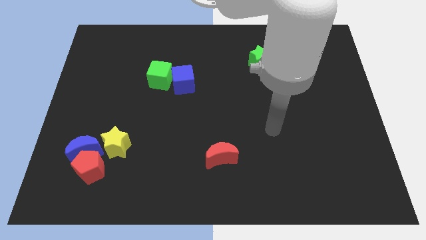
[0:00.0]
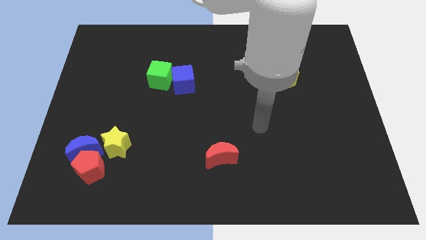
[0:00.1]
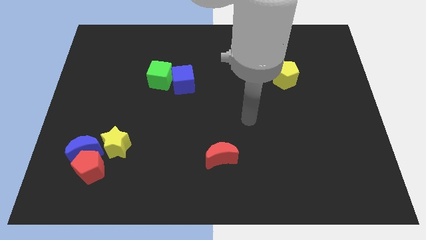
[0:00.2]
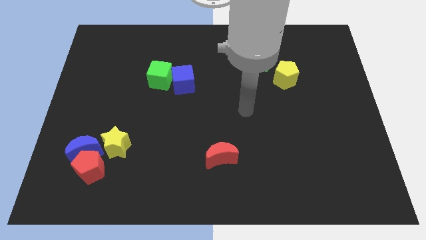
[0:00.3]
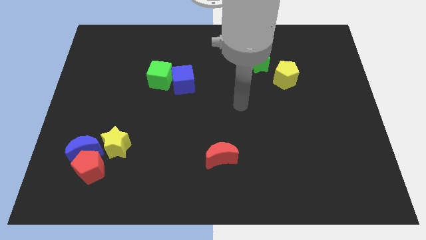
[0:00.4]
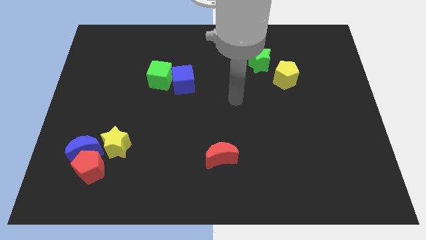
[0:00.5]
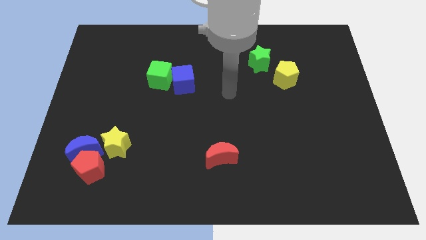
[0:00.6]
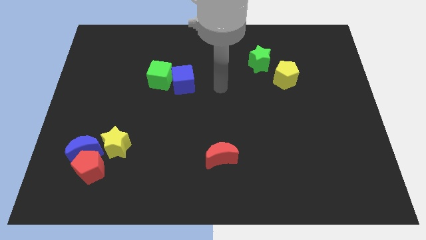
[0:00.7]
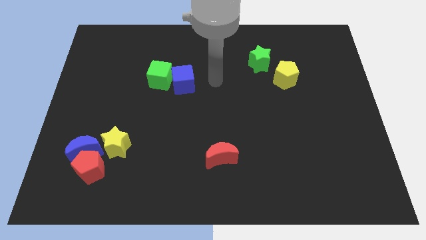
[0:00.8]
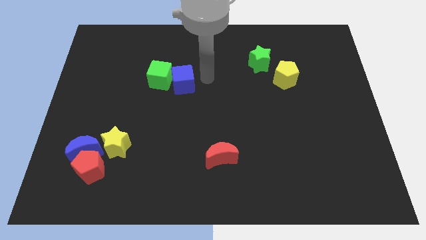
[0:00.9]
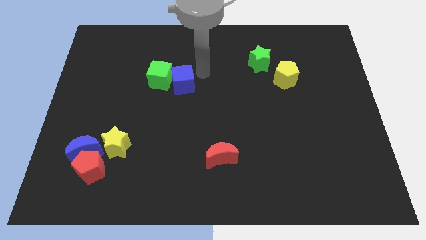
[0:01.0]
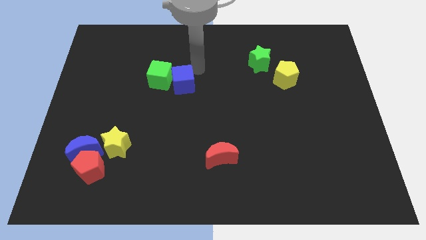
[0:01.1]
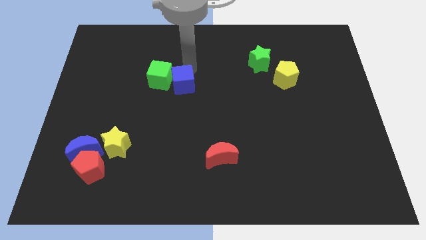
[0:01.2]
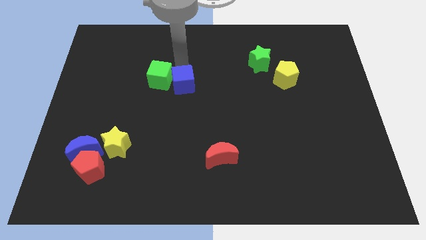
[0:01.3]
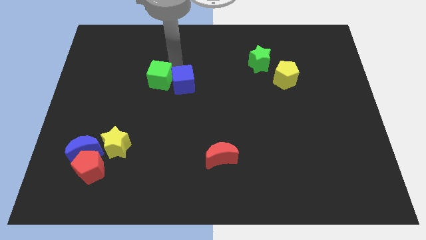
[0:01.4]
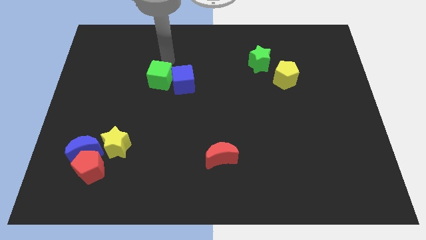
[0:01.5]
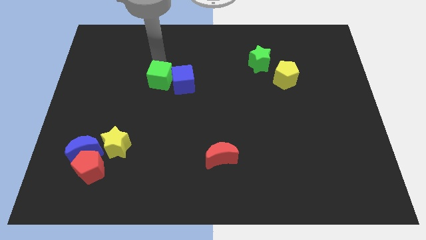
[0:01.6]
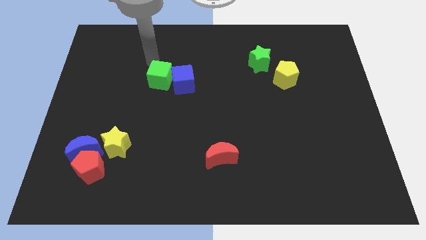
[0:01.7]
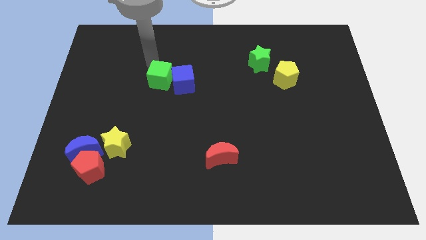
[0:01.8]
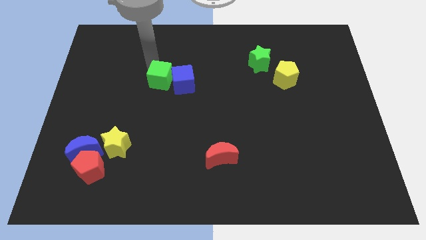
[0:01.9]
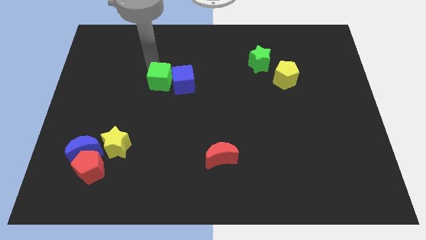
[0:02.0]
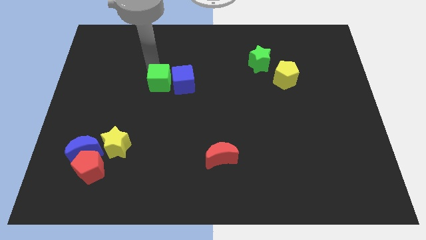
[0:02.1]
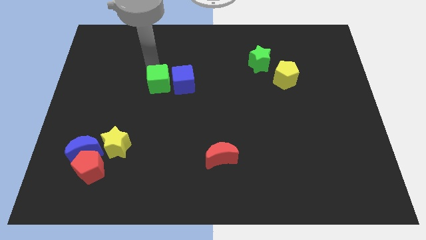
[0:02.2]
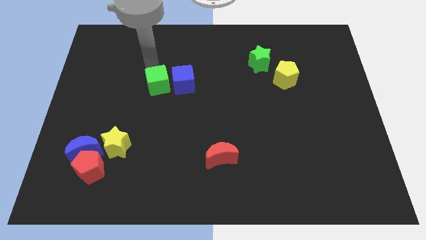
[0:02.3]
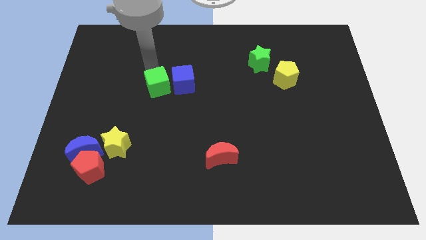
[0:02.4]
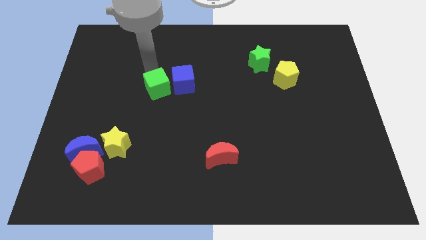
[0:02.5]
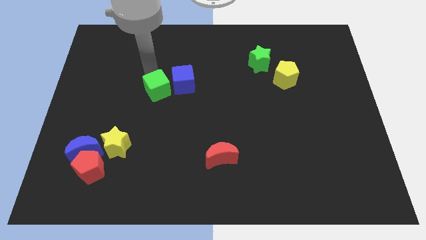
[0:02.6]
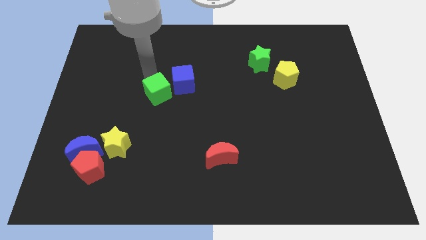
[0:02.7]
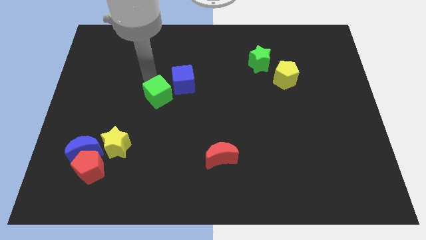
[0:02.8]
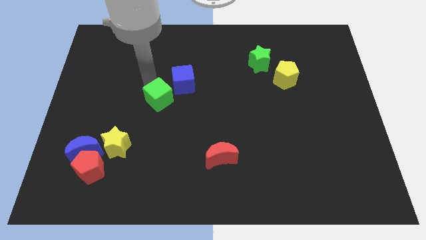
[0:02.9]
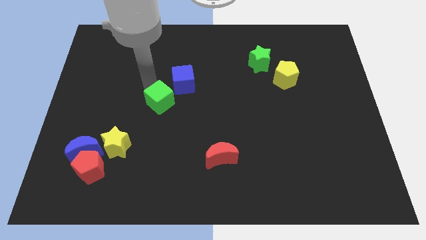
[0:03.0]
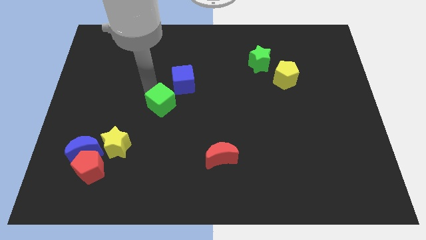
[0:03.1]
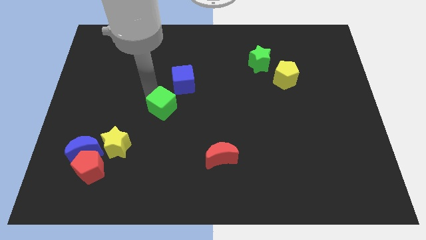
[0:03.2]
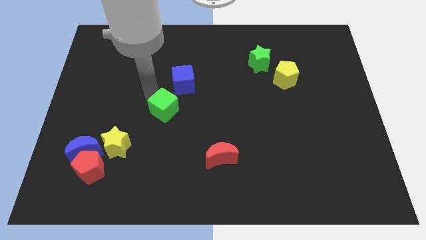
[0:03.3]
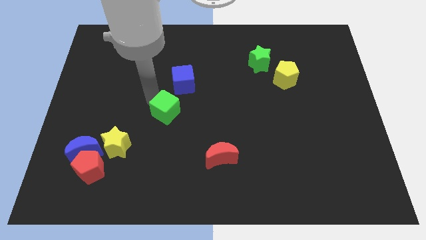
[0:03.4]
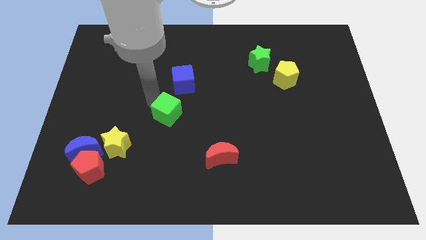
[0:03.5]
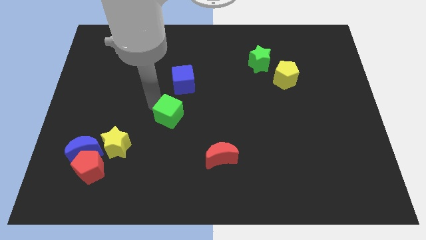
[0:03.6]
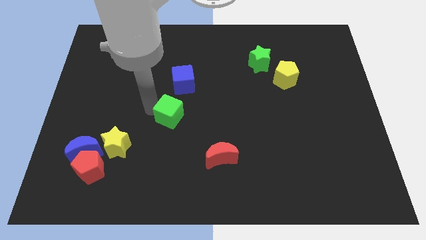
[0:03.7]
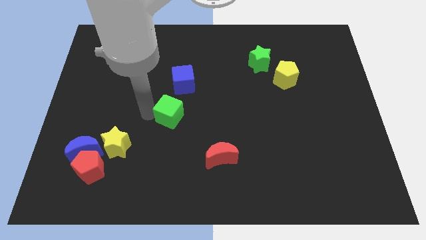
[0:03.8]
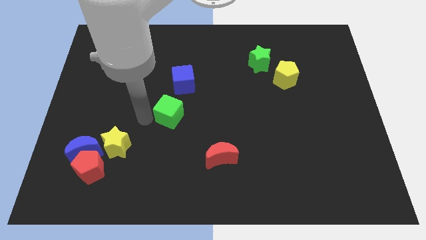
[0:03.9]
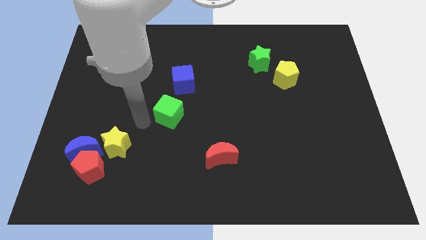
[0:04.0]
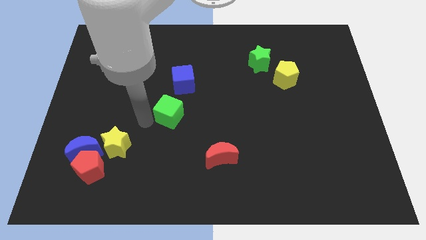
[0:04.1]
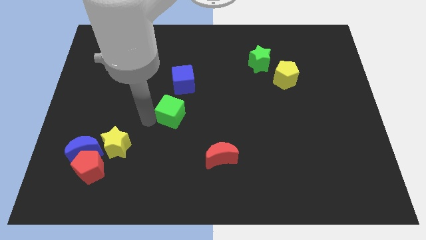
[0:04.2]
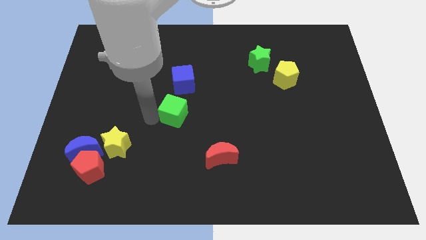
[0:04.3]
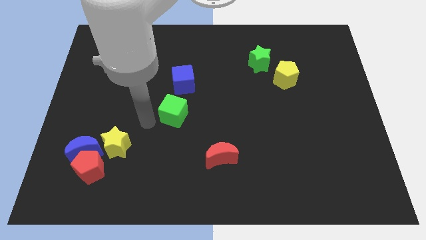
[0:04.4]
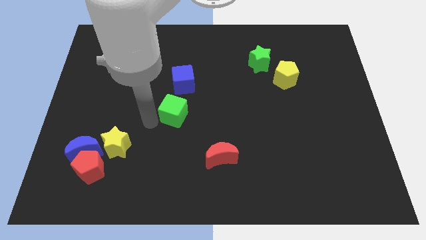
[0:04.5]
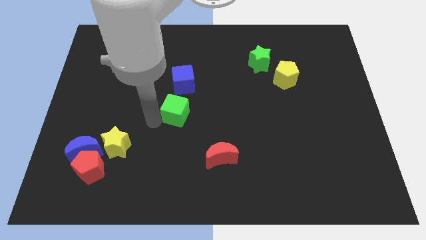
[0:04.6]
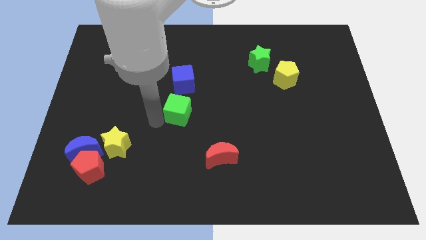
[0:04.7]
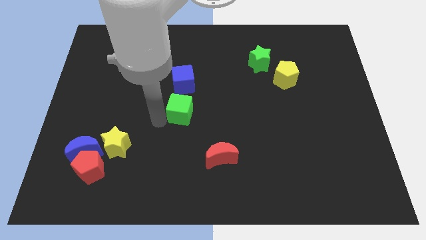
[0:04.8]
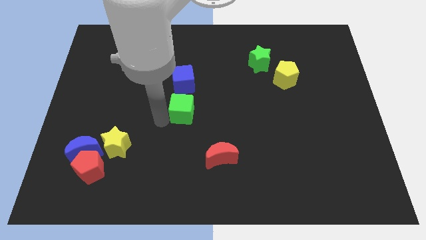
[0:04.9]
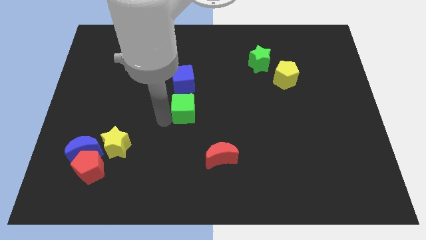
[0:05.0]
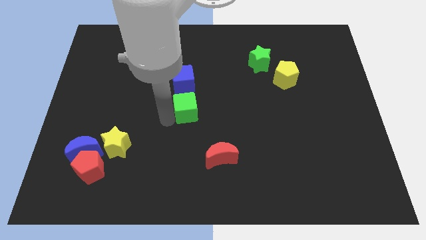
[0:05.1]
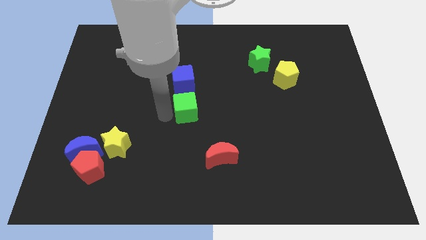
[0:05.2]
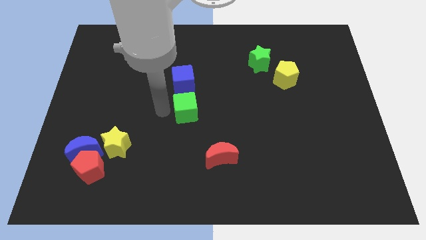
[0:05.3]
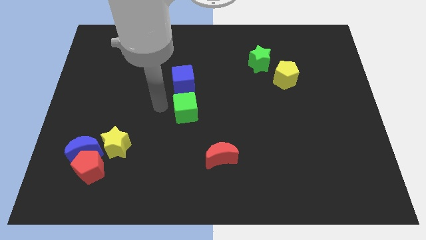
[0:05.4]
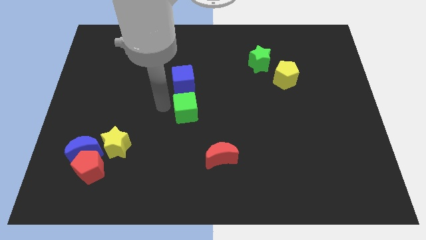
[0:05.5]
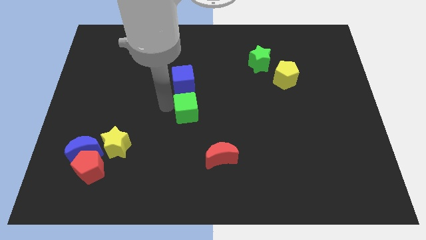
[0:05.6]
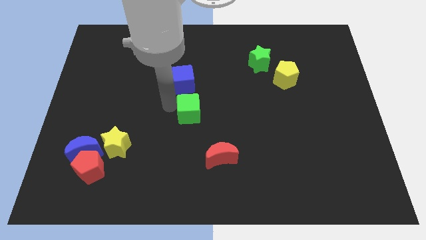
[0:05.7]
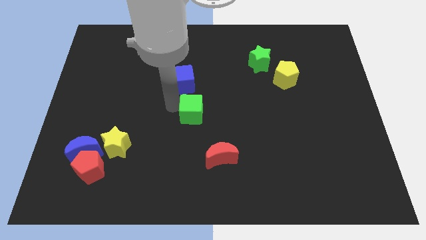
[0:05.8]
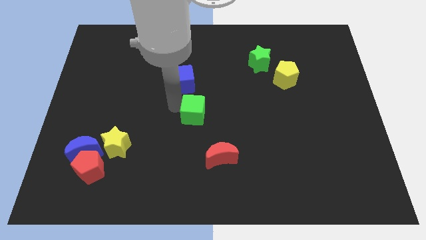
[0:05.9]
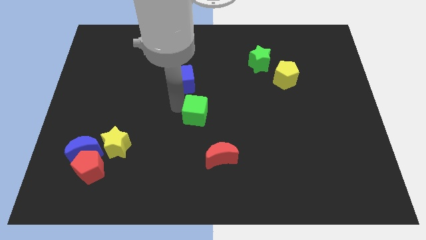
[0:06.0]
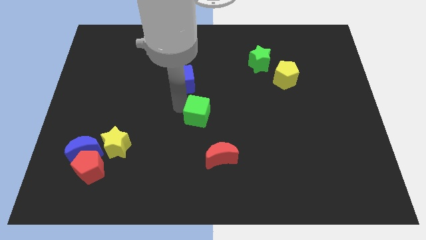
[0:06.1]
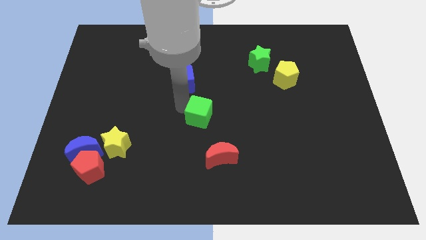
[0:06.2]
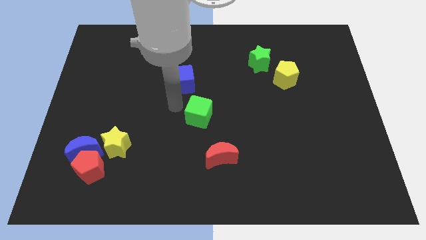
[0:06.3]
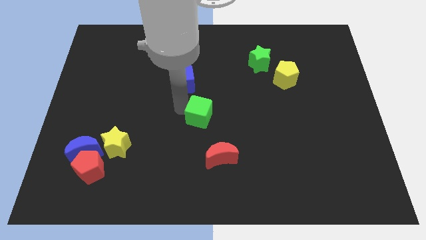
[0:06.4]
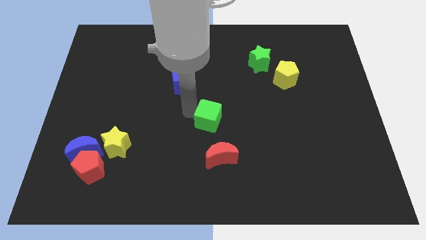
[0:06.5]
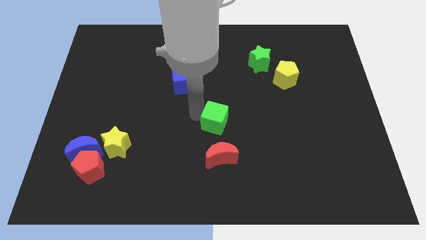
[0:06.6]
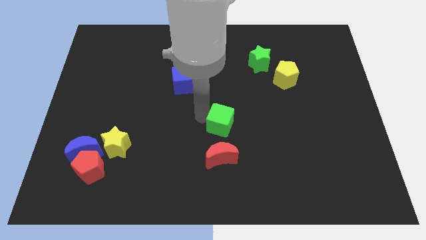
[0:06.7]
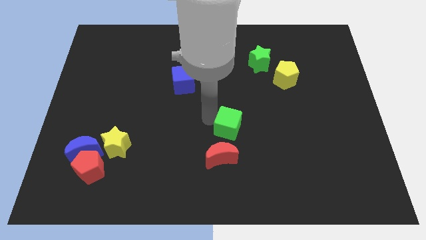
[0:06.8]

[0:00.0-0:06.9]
put the green cube to the top right side of the red moon

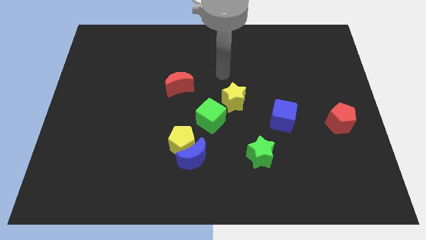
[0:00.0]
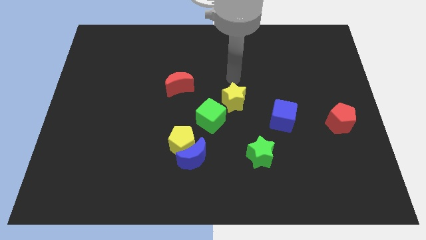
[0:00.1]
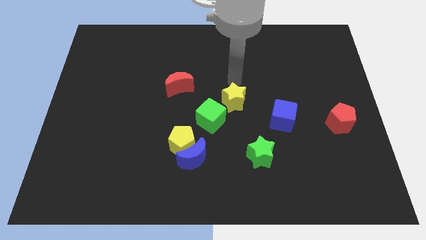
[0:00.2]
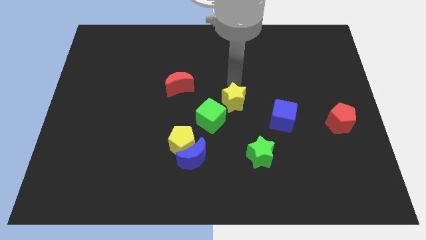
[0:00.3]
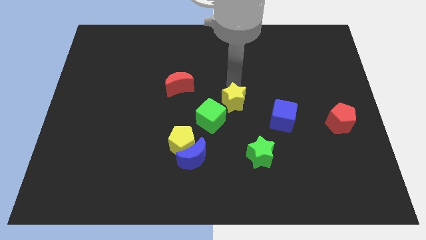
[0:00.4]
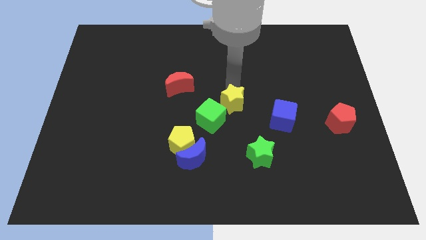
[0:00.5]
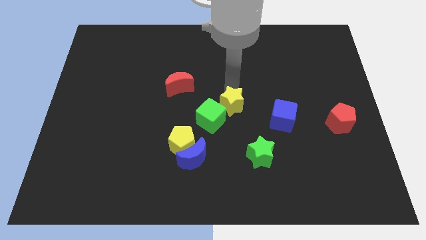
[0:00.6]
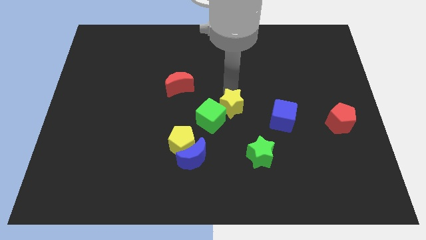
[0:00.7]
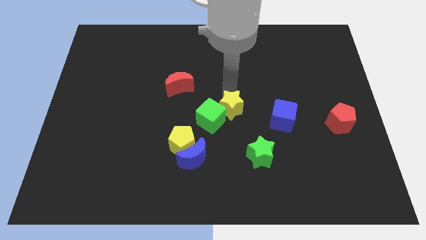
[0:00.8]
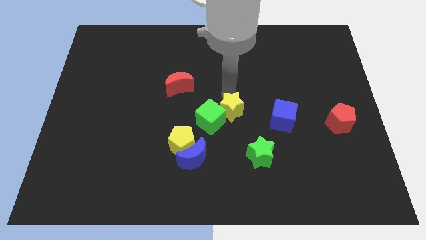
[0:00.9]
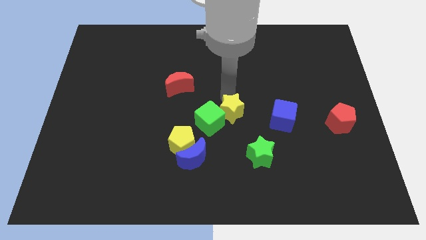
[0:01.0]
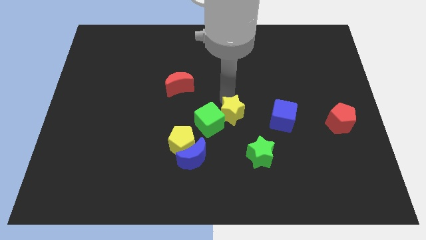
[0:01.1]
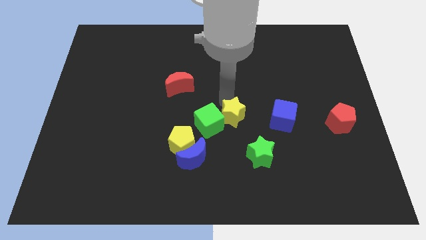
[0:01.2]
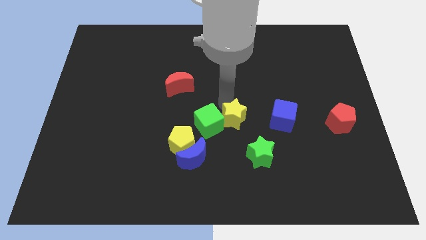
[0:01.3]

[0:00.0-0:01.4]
put the yellow star to the top left of the green star
